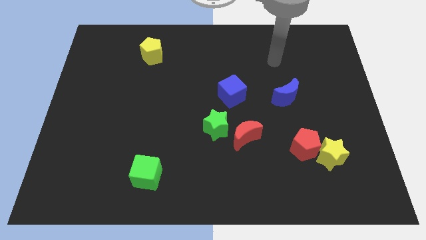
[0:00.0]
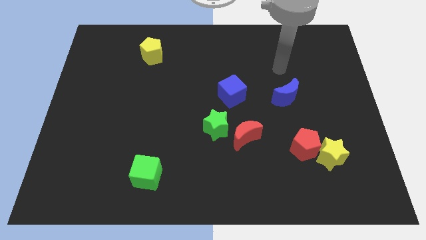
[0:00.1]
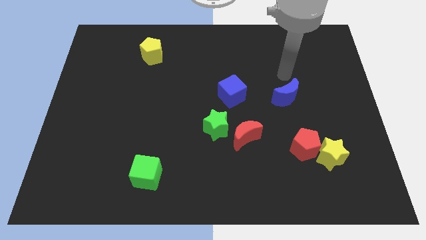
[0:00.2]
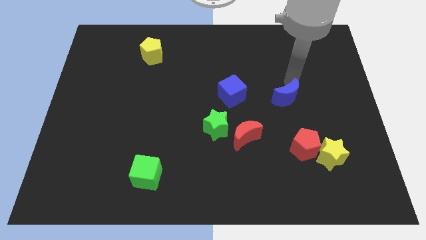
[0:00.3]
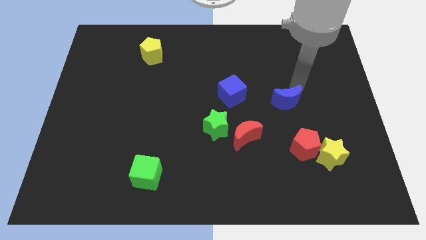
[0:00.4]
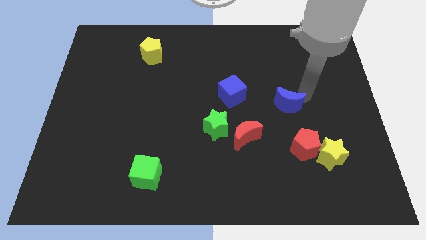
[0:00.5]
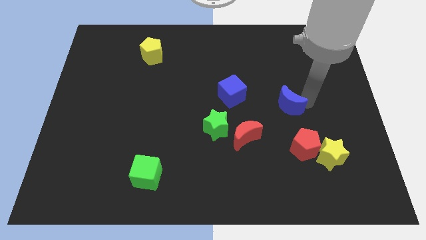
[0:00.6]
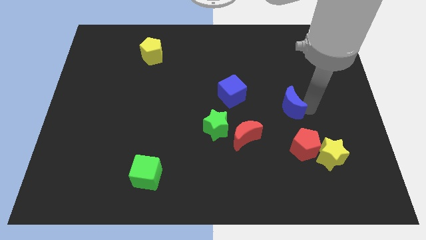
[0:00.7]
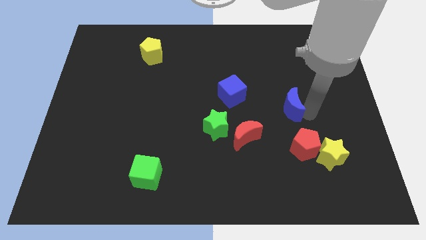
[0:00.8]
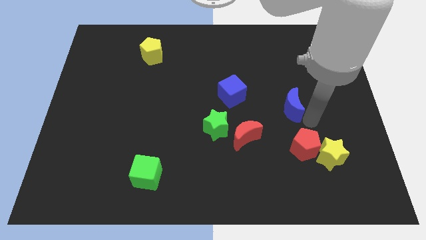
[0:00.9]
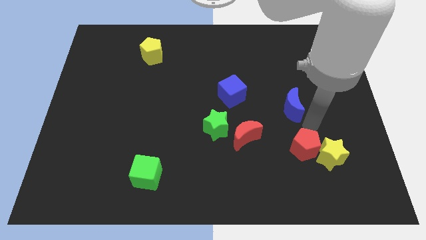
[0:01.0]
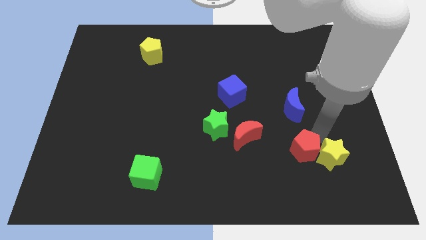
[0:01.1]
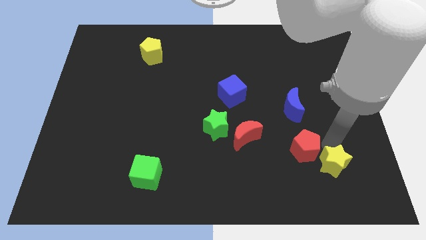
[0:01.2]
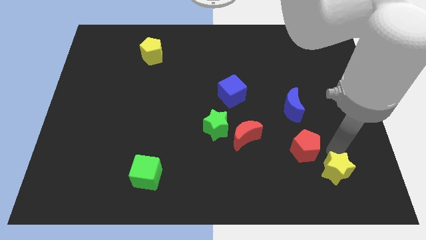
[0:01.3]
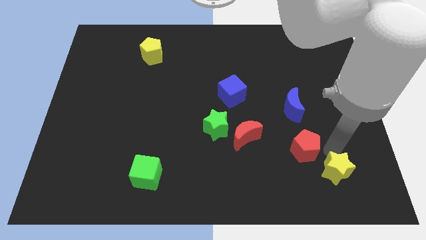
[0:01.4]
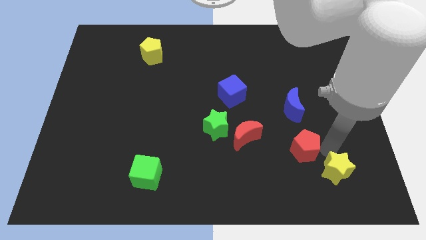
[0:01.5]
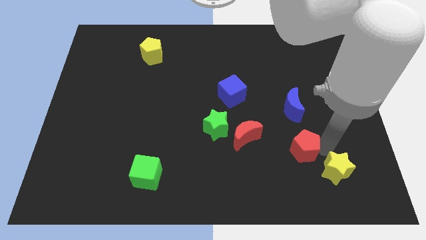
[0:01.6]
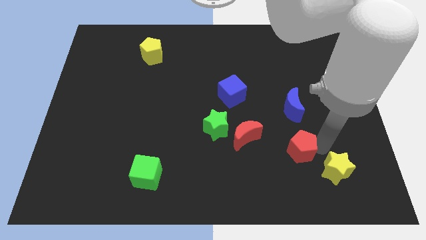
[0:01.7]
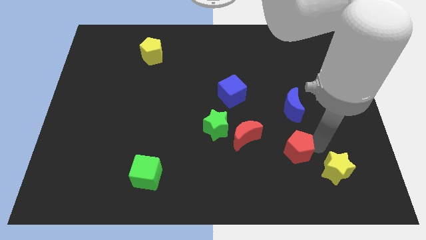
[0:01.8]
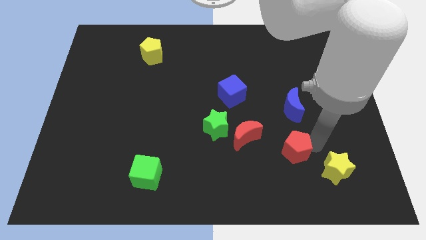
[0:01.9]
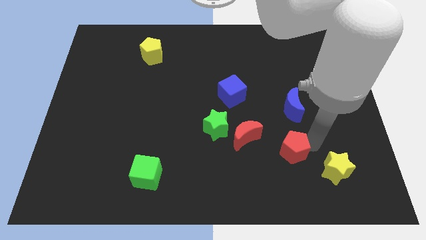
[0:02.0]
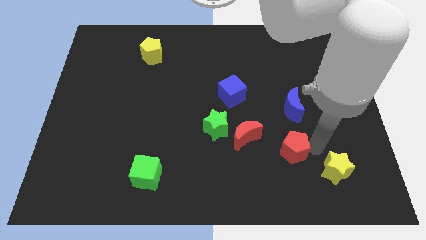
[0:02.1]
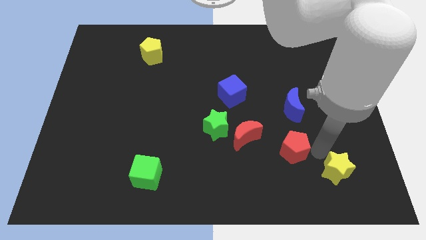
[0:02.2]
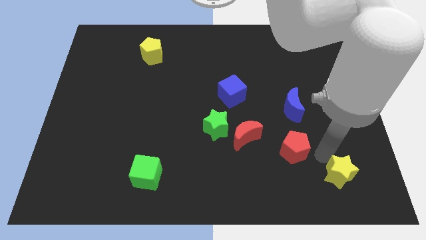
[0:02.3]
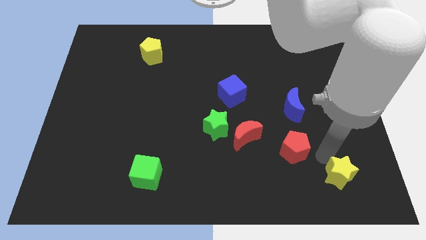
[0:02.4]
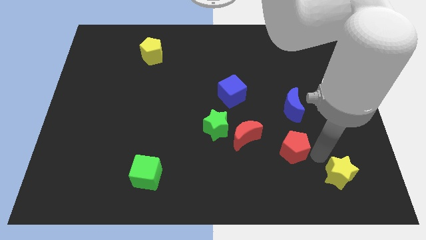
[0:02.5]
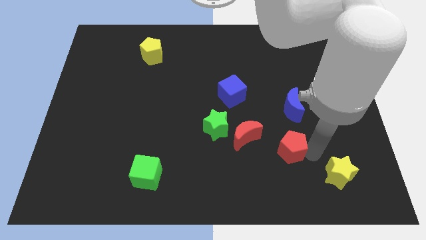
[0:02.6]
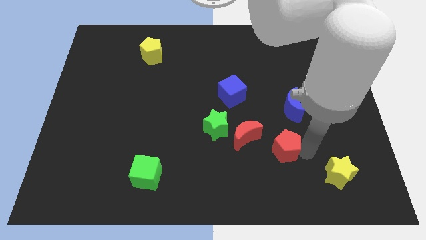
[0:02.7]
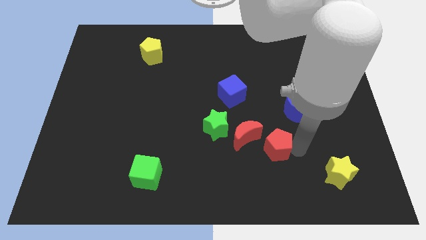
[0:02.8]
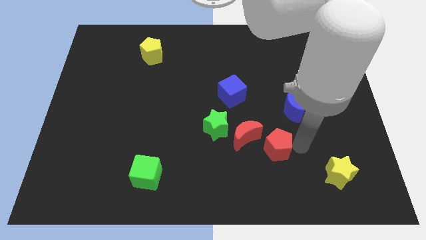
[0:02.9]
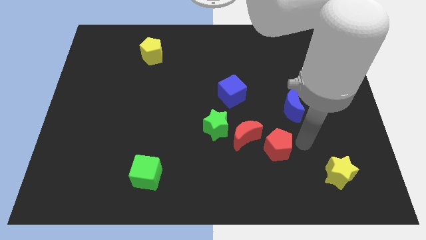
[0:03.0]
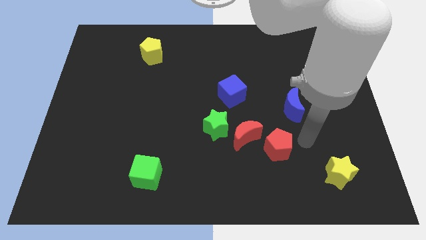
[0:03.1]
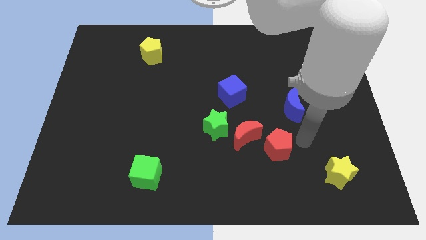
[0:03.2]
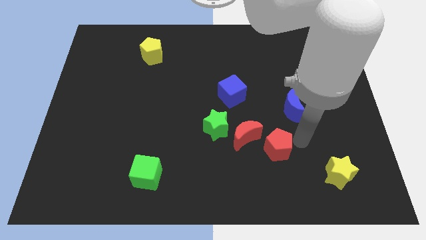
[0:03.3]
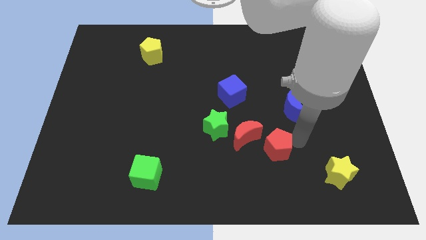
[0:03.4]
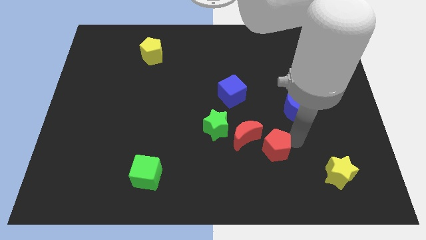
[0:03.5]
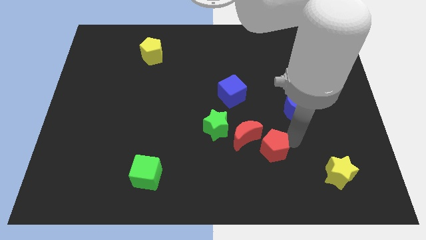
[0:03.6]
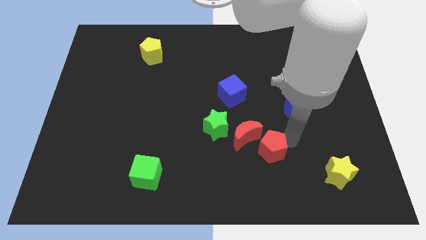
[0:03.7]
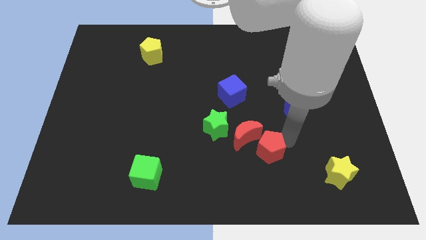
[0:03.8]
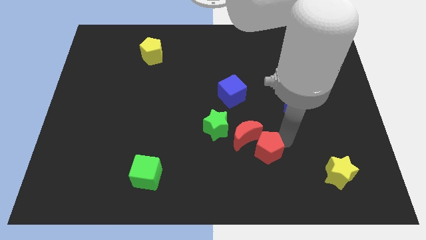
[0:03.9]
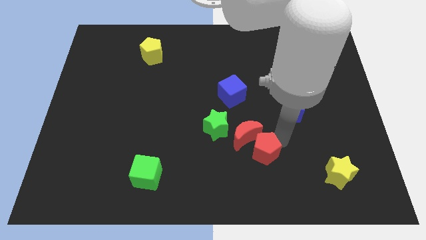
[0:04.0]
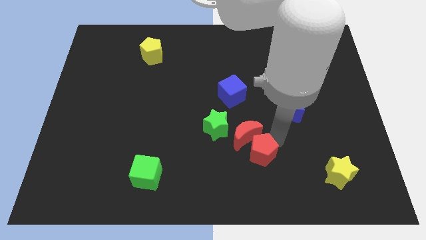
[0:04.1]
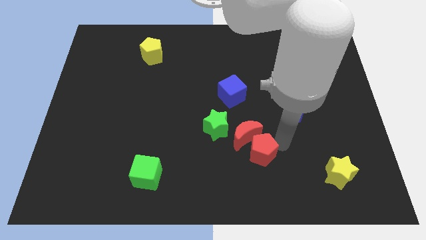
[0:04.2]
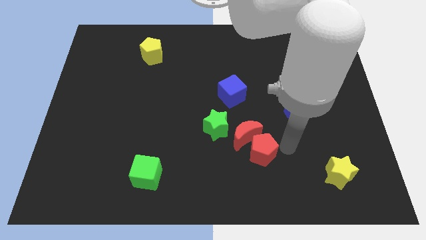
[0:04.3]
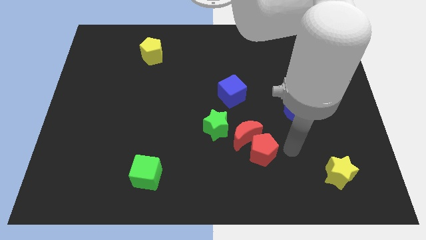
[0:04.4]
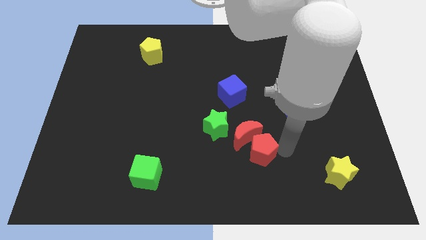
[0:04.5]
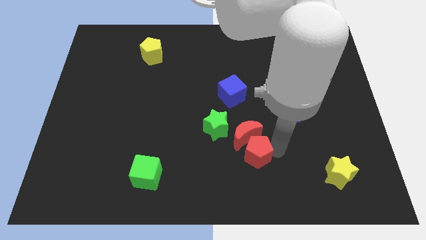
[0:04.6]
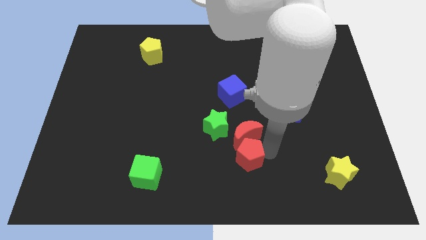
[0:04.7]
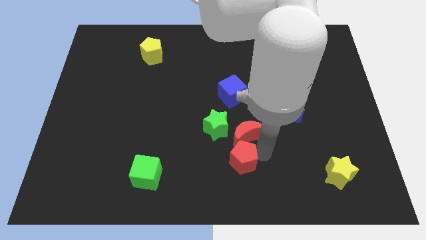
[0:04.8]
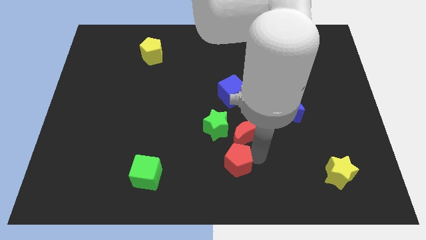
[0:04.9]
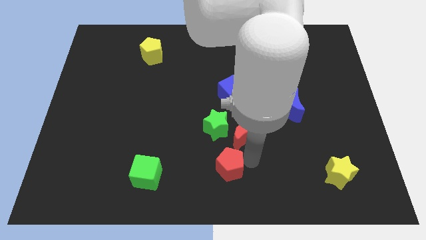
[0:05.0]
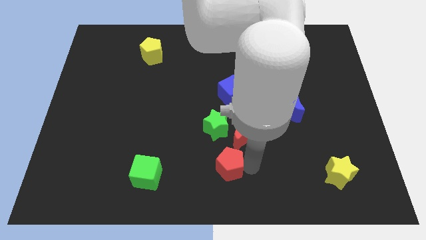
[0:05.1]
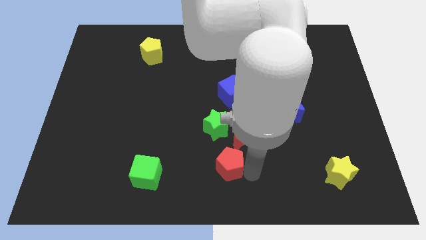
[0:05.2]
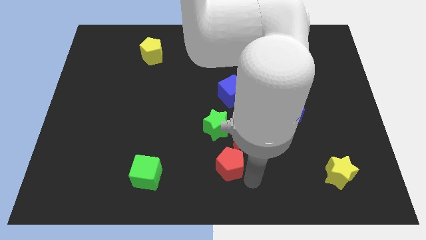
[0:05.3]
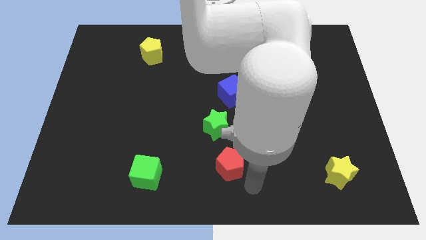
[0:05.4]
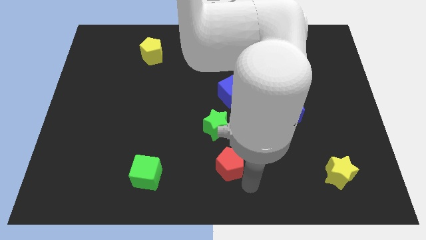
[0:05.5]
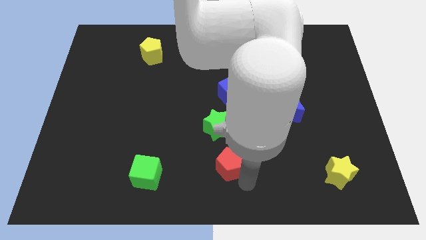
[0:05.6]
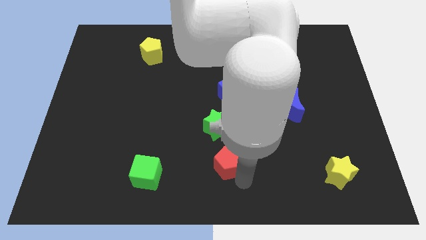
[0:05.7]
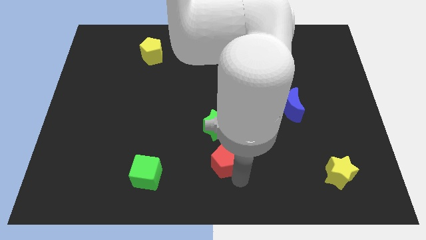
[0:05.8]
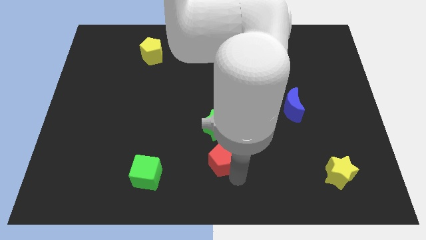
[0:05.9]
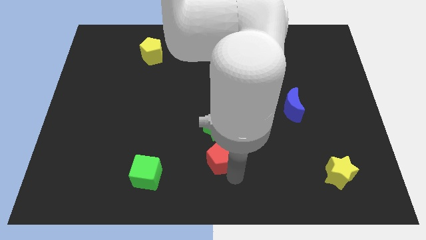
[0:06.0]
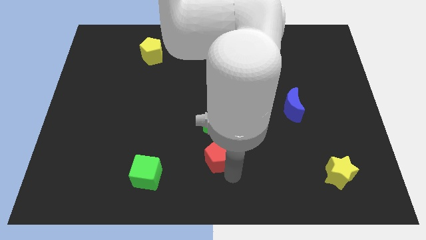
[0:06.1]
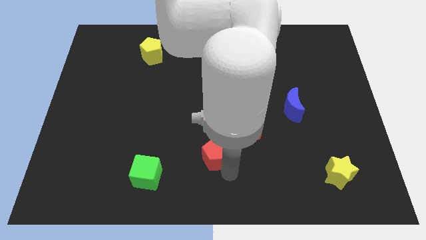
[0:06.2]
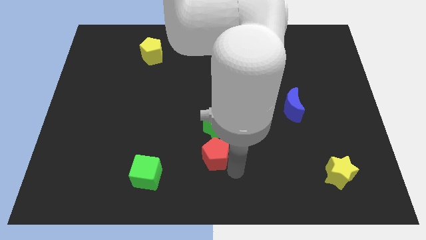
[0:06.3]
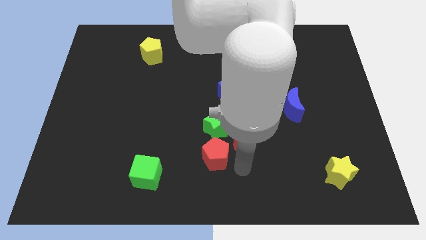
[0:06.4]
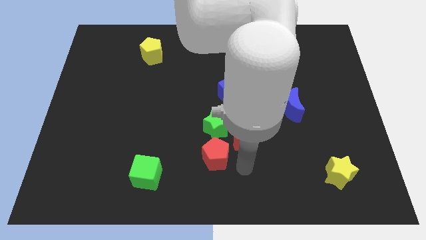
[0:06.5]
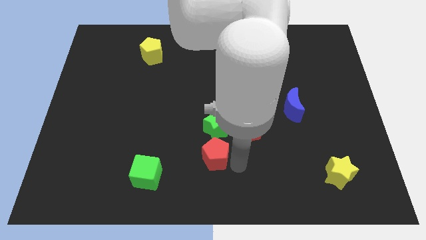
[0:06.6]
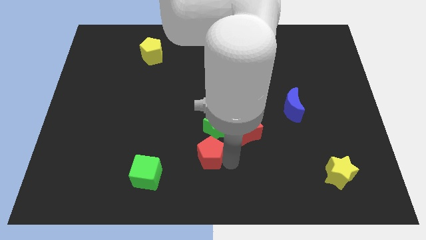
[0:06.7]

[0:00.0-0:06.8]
push the red pentagon diagonally down and to the left of the green star
